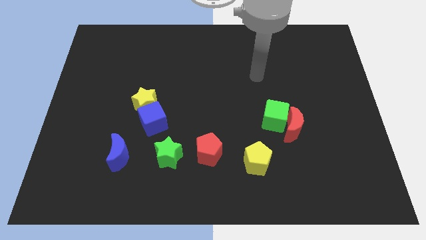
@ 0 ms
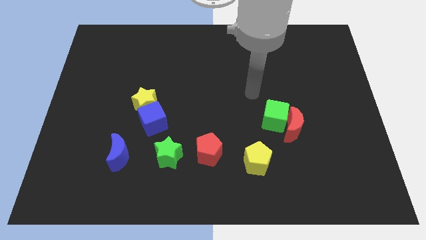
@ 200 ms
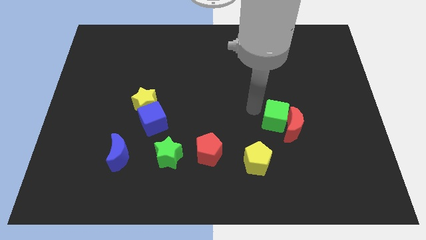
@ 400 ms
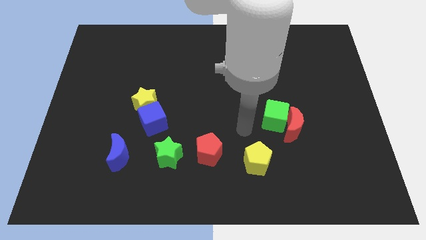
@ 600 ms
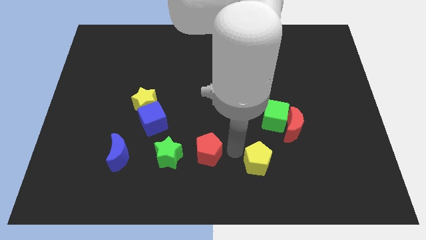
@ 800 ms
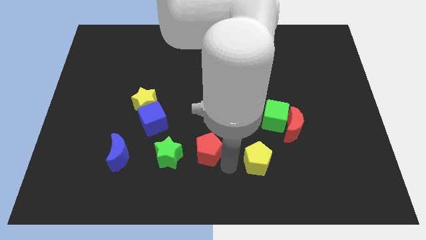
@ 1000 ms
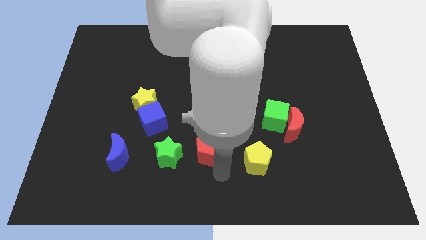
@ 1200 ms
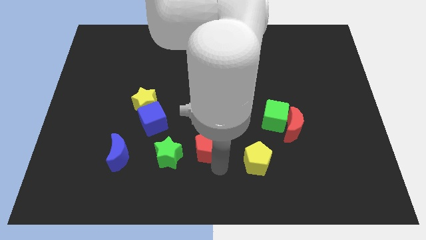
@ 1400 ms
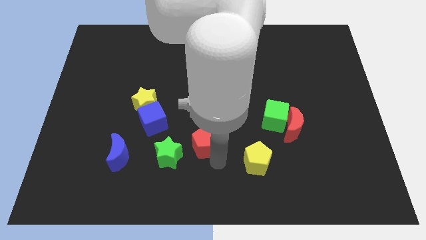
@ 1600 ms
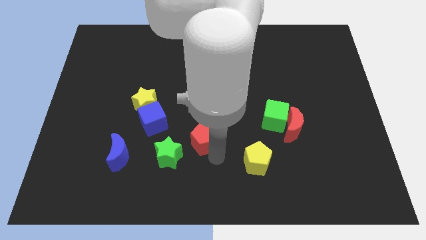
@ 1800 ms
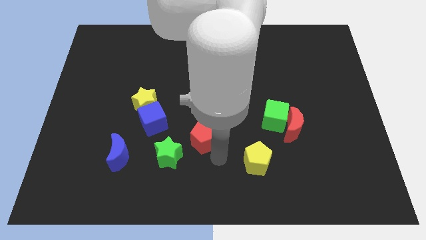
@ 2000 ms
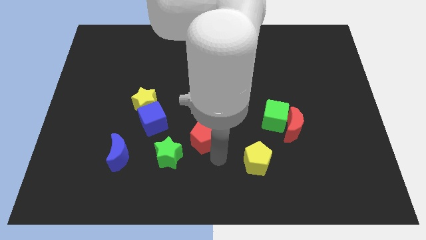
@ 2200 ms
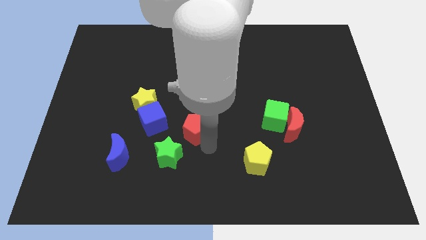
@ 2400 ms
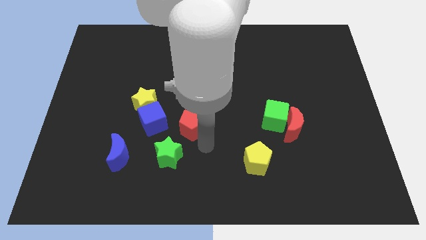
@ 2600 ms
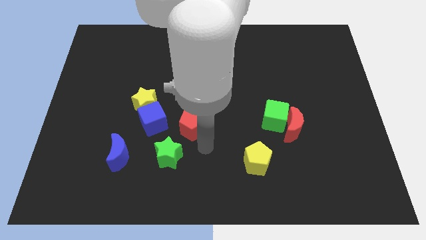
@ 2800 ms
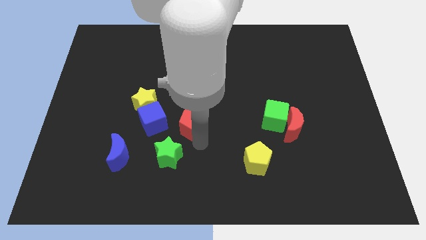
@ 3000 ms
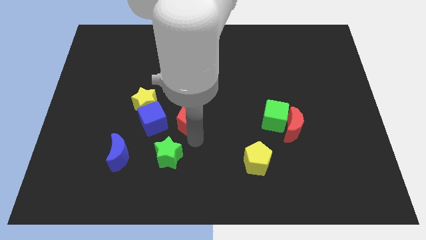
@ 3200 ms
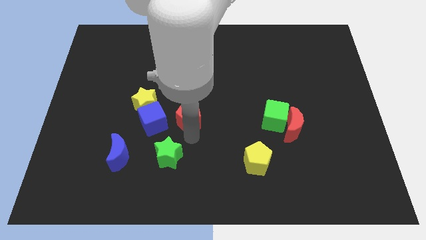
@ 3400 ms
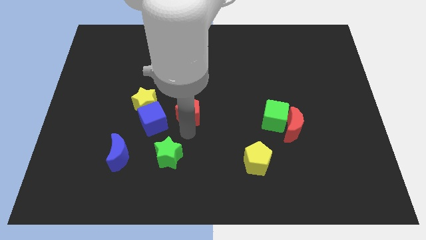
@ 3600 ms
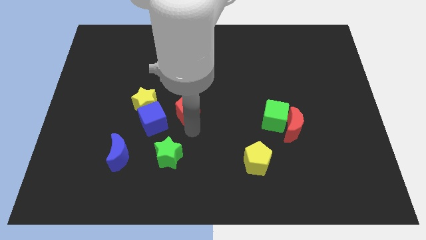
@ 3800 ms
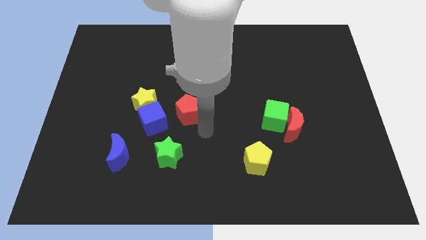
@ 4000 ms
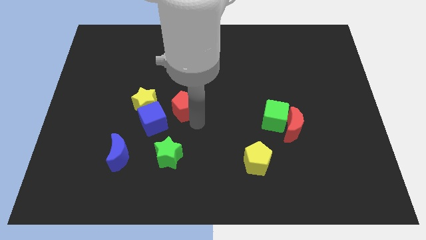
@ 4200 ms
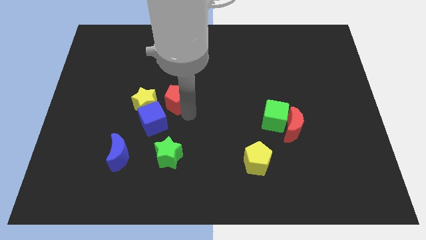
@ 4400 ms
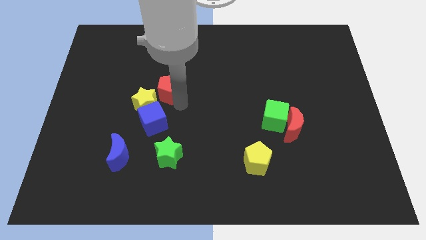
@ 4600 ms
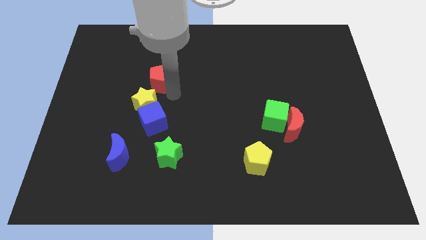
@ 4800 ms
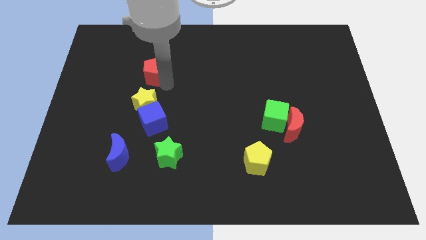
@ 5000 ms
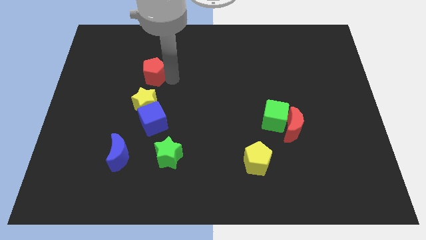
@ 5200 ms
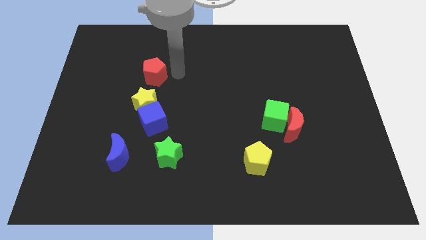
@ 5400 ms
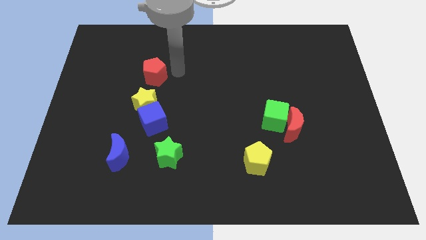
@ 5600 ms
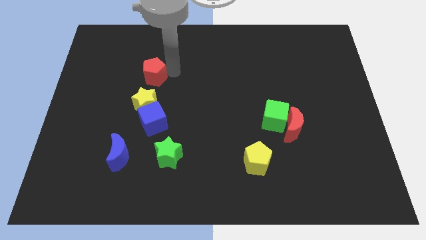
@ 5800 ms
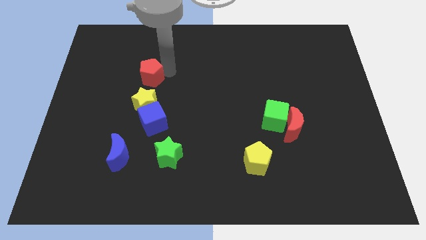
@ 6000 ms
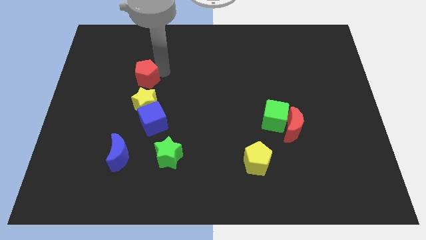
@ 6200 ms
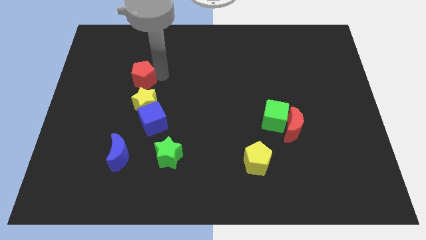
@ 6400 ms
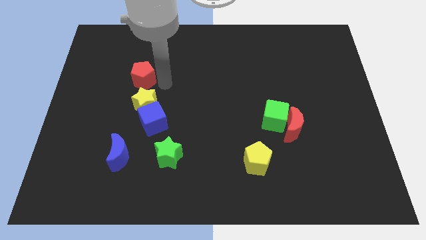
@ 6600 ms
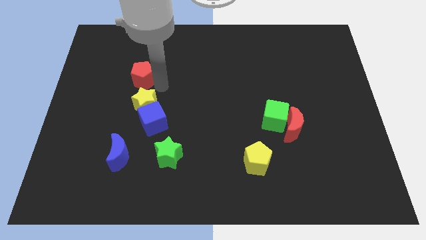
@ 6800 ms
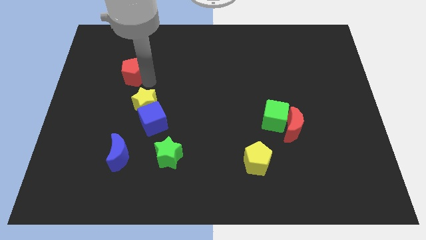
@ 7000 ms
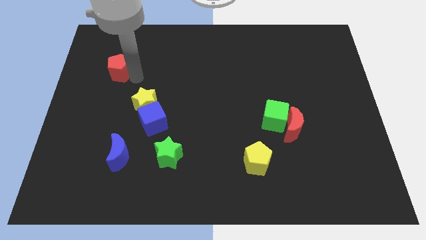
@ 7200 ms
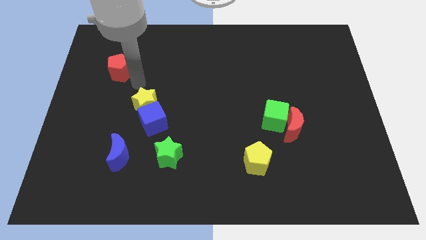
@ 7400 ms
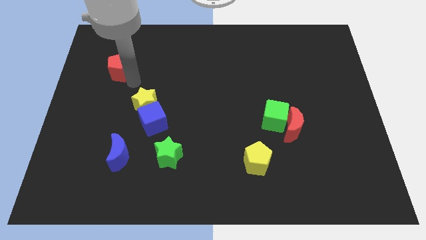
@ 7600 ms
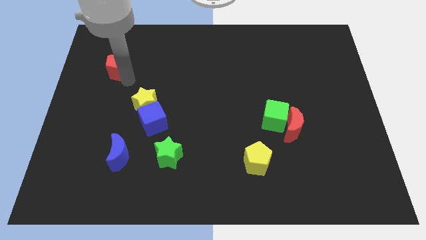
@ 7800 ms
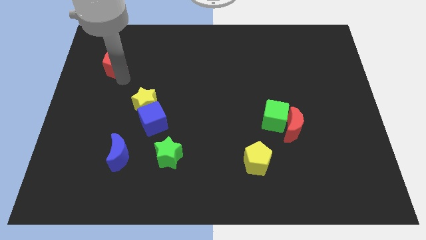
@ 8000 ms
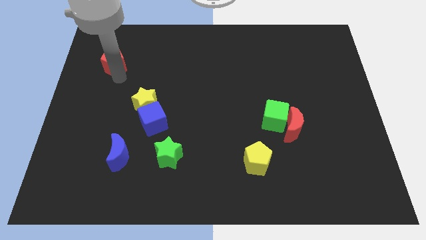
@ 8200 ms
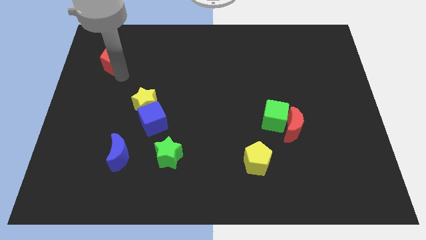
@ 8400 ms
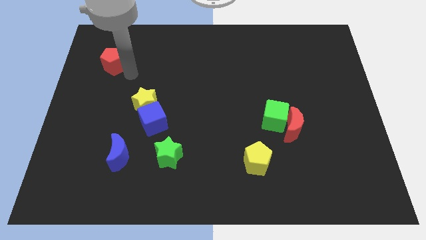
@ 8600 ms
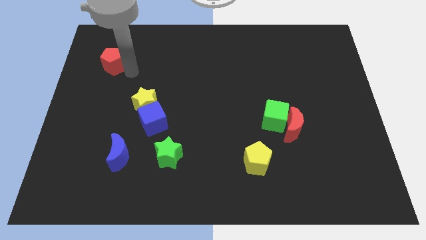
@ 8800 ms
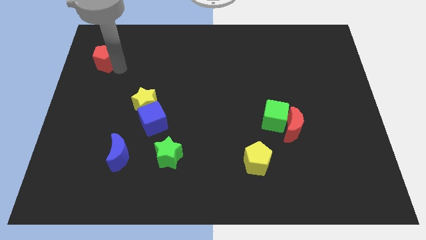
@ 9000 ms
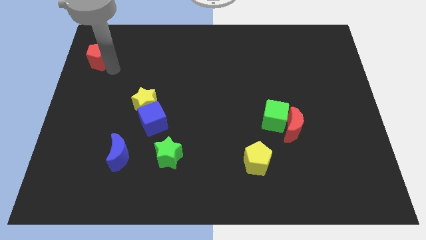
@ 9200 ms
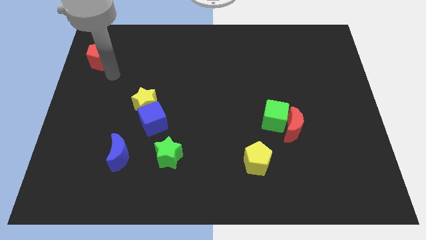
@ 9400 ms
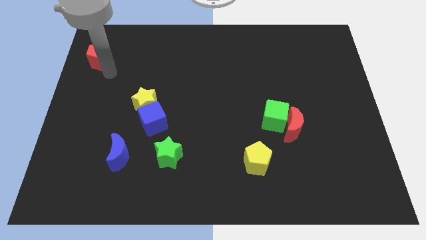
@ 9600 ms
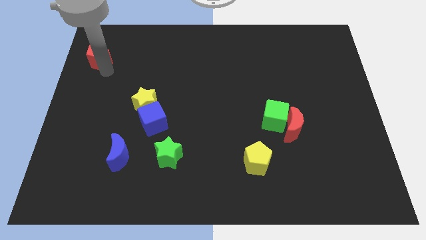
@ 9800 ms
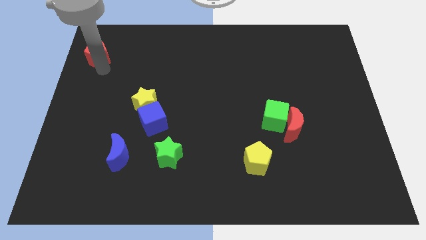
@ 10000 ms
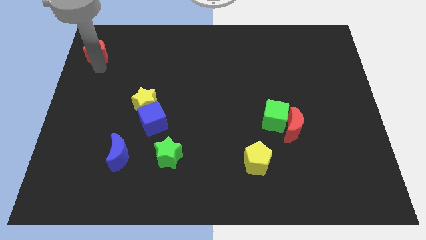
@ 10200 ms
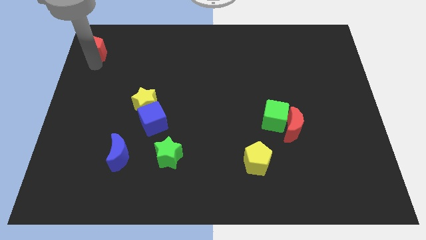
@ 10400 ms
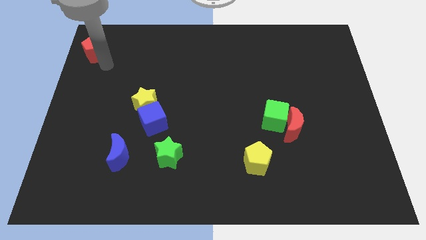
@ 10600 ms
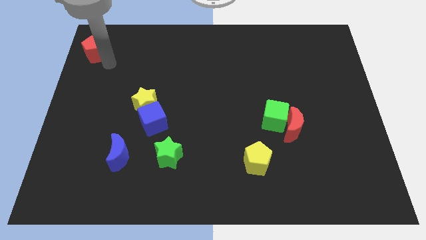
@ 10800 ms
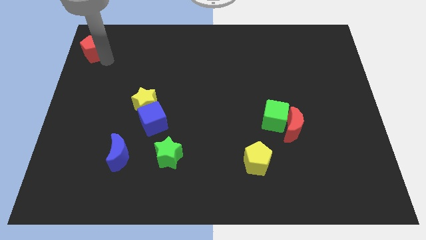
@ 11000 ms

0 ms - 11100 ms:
put the red pentagon to the top left corner

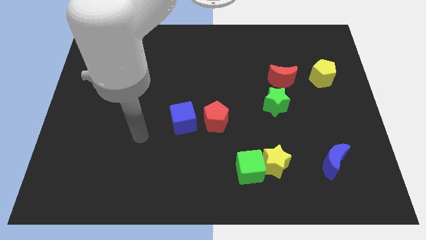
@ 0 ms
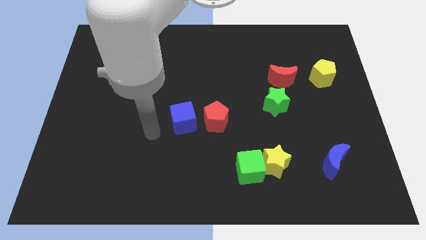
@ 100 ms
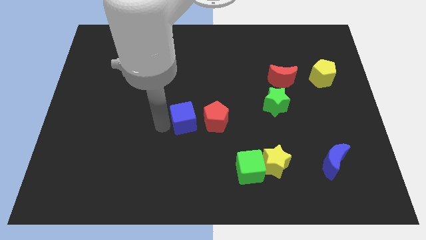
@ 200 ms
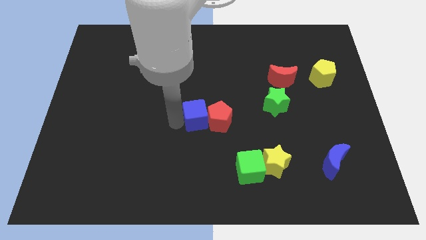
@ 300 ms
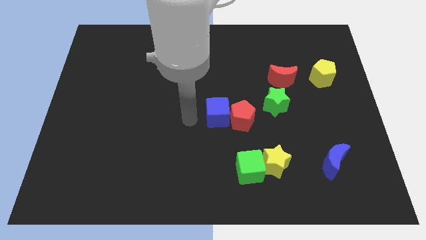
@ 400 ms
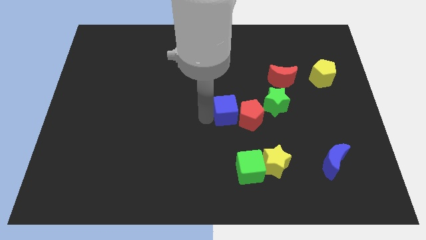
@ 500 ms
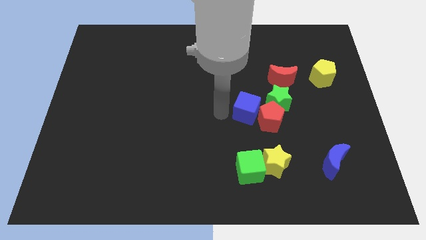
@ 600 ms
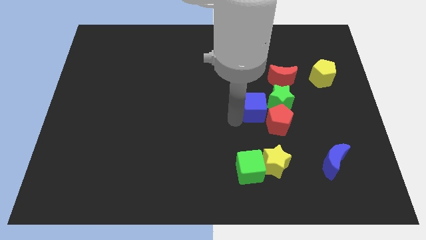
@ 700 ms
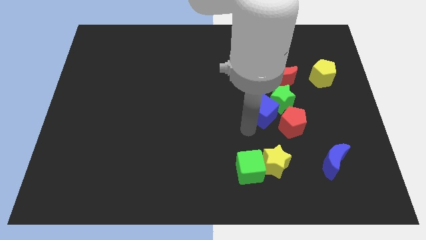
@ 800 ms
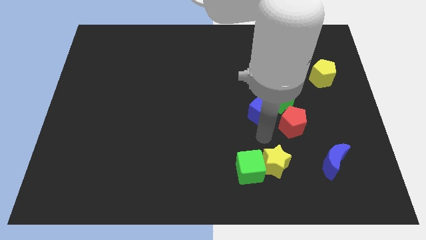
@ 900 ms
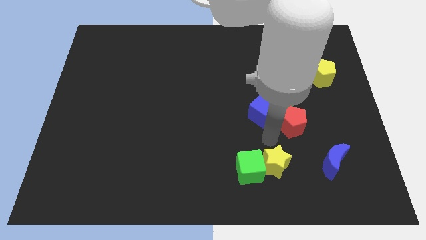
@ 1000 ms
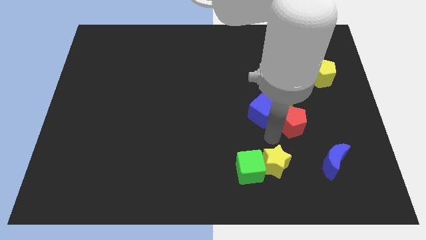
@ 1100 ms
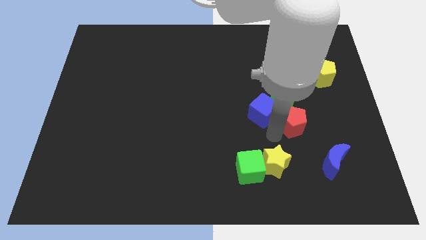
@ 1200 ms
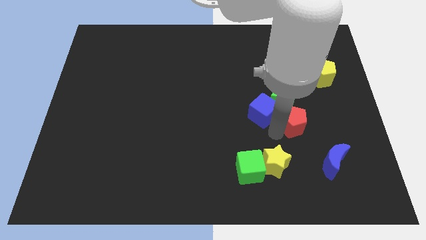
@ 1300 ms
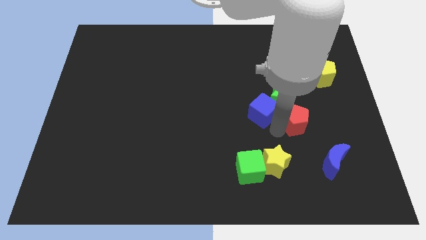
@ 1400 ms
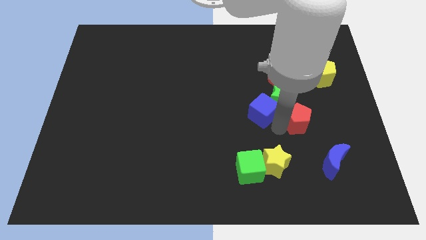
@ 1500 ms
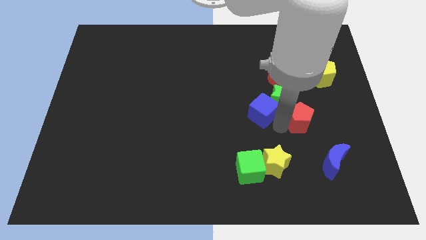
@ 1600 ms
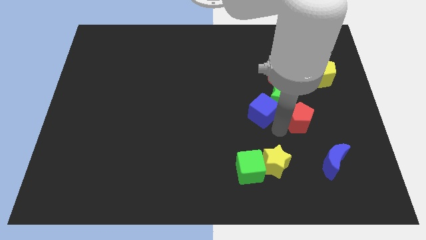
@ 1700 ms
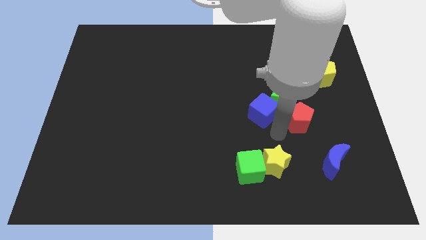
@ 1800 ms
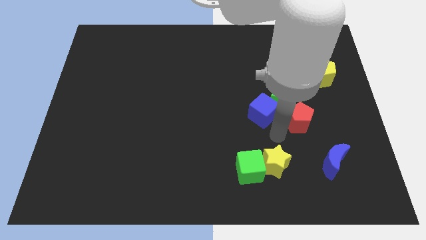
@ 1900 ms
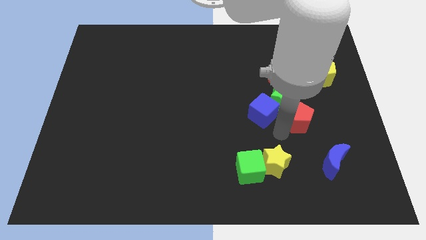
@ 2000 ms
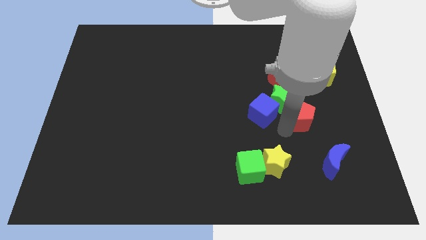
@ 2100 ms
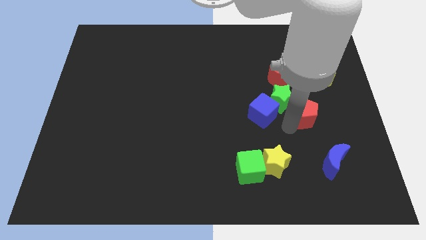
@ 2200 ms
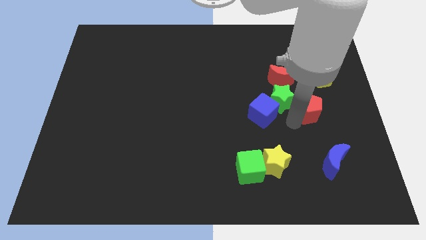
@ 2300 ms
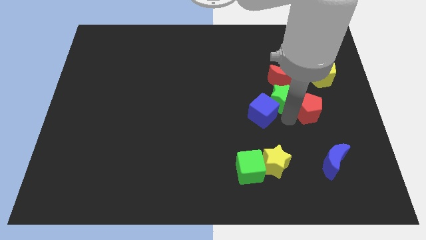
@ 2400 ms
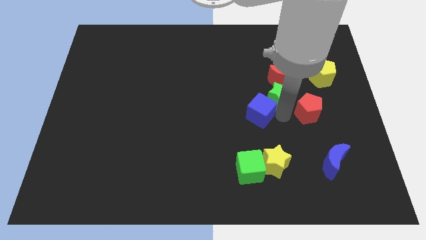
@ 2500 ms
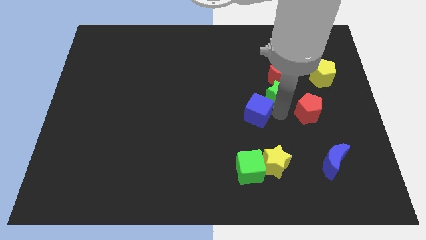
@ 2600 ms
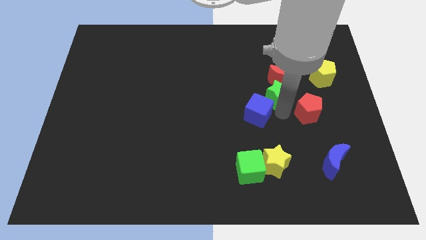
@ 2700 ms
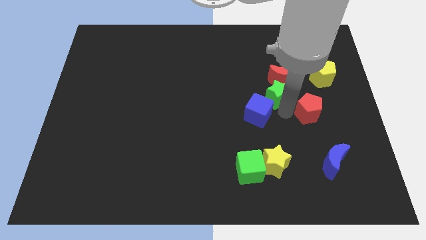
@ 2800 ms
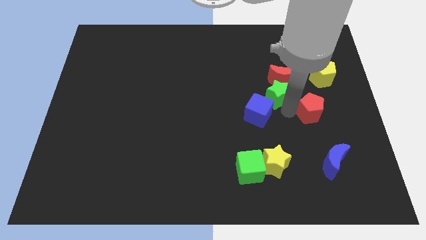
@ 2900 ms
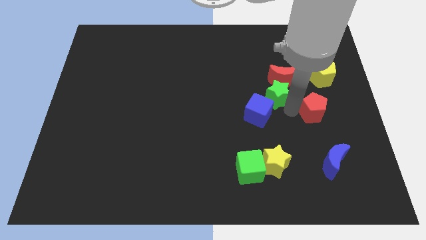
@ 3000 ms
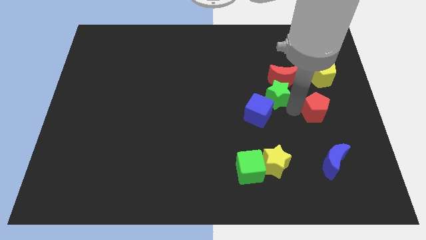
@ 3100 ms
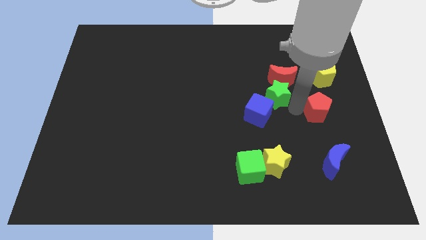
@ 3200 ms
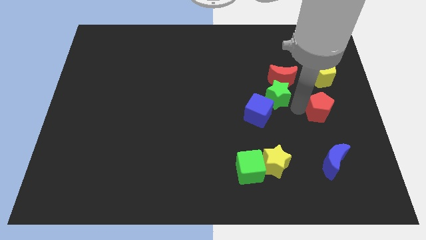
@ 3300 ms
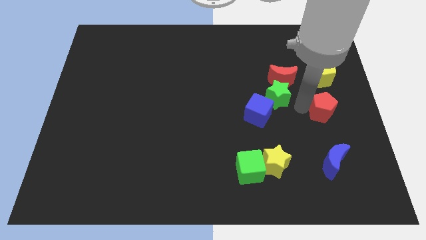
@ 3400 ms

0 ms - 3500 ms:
put the red pentagon to the right side
